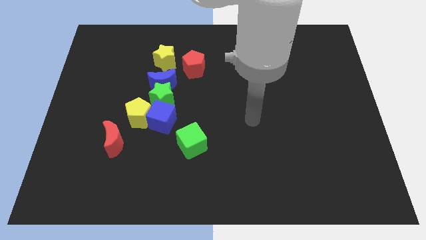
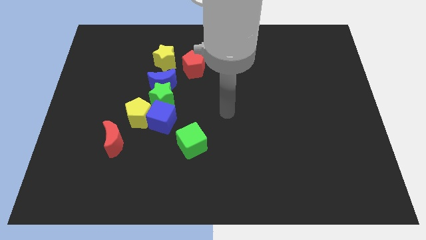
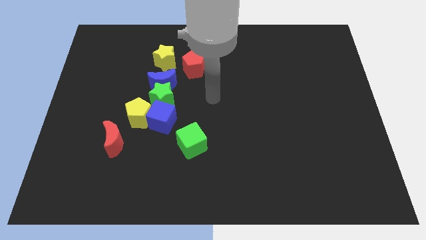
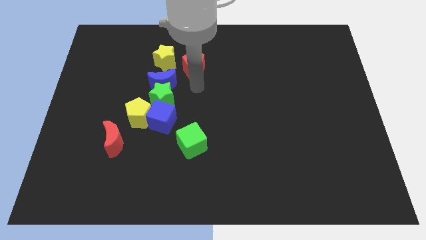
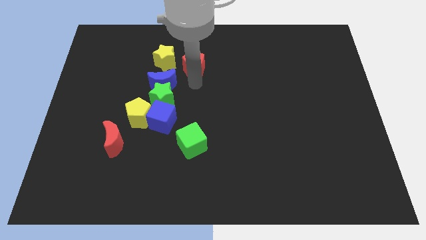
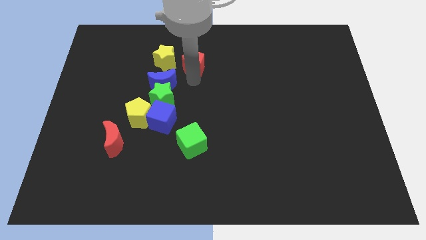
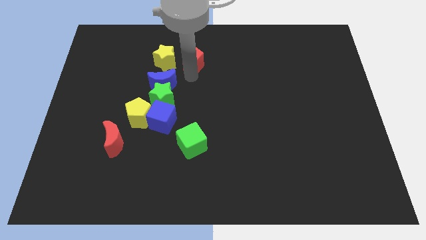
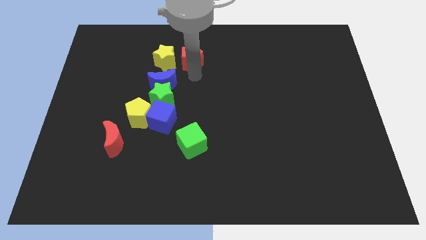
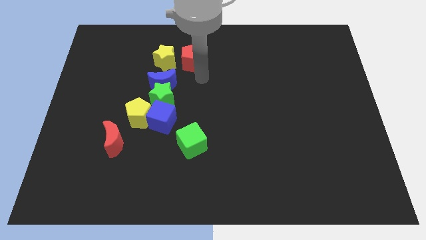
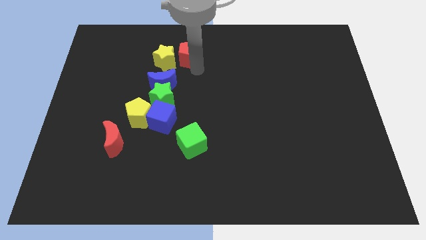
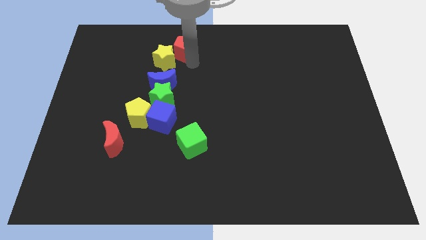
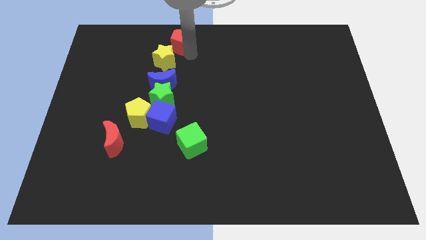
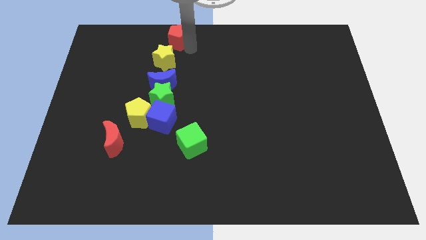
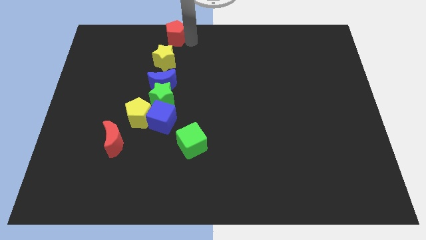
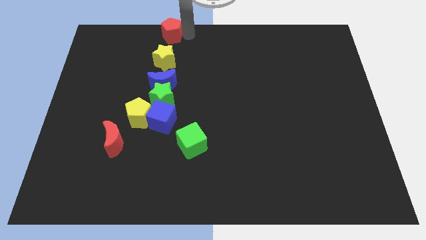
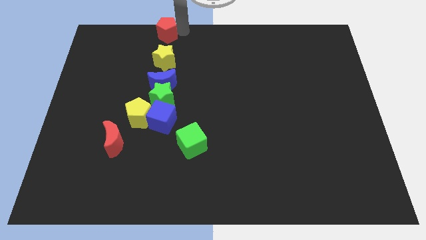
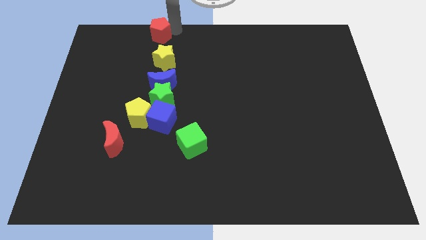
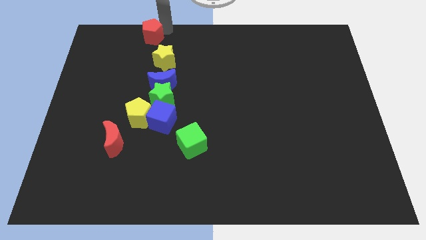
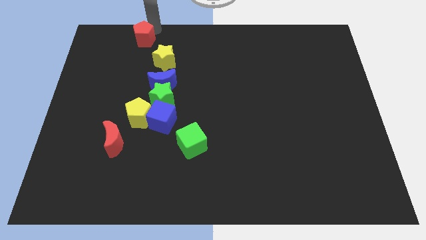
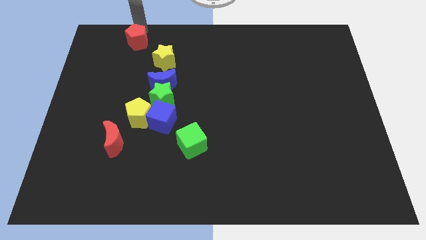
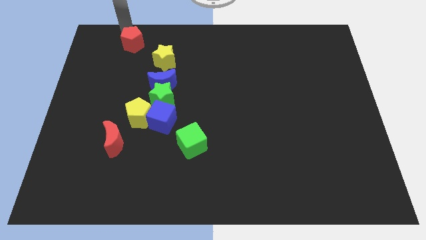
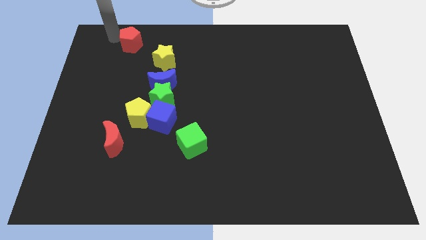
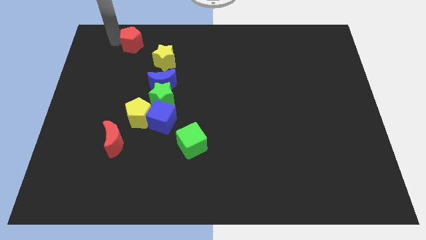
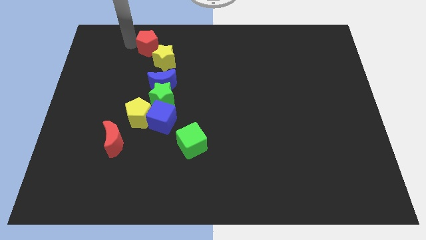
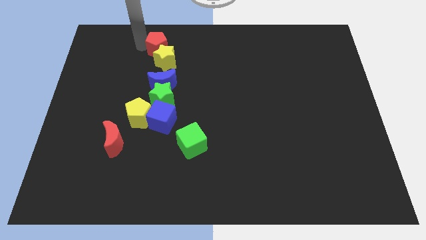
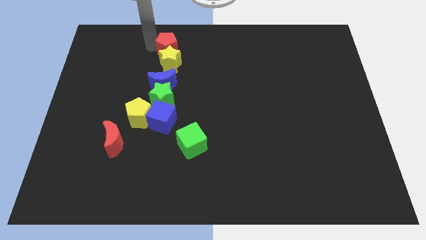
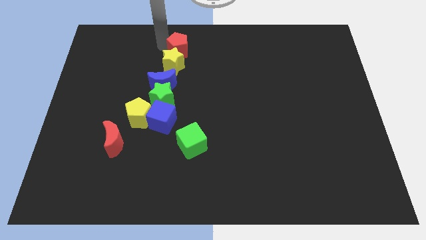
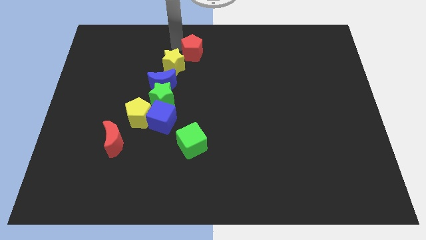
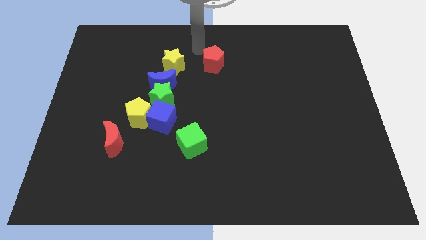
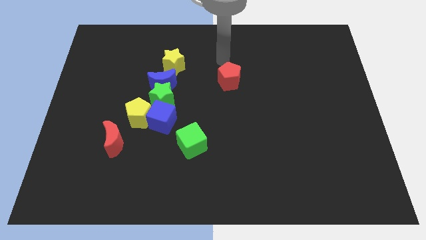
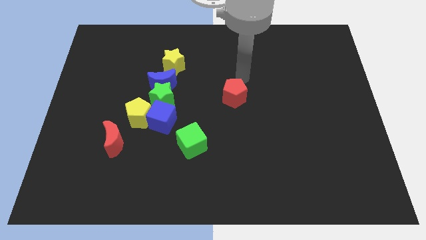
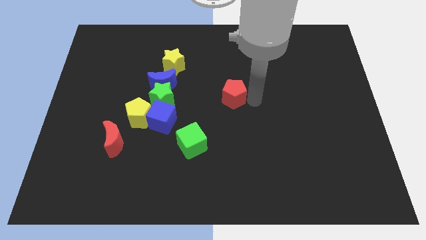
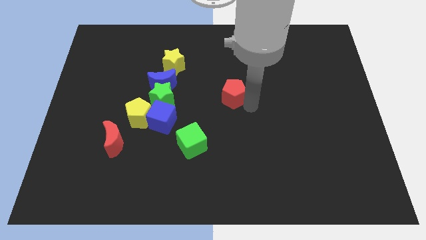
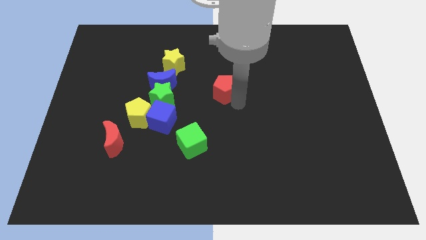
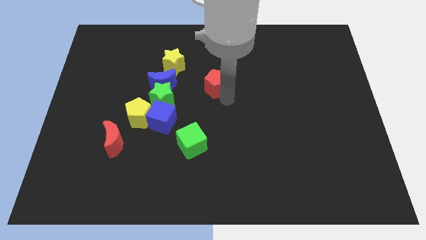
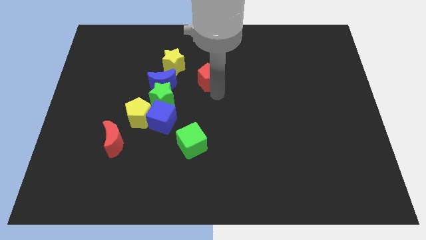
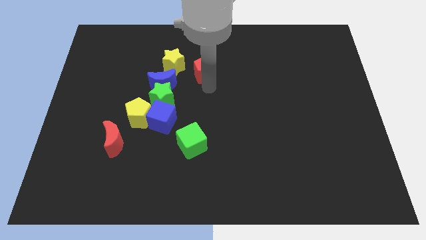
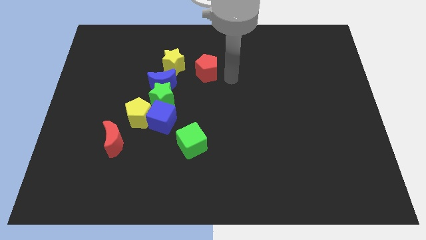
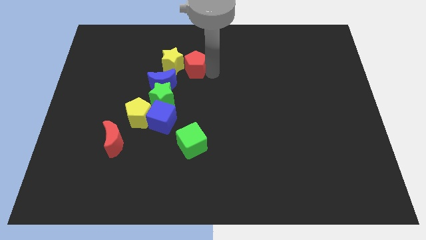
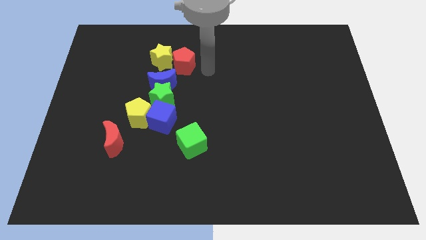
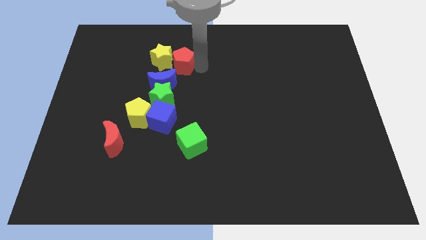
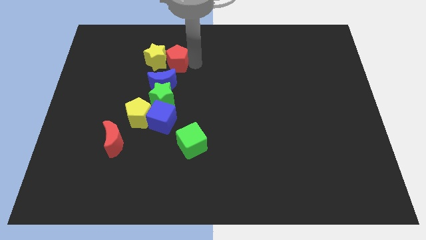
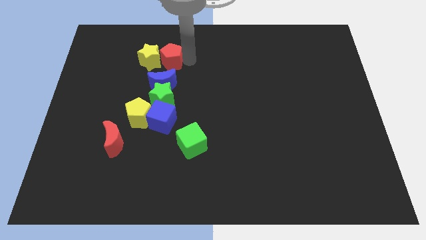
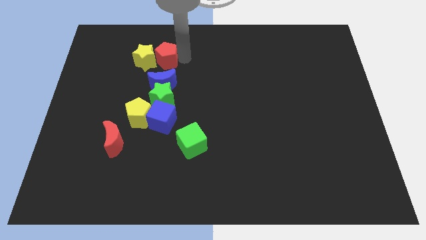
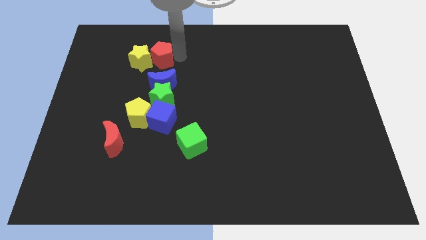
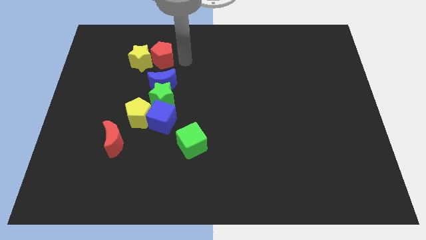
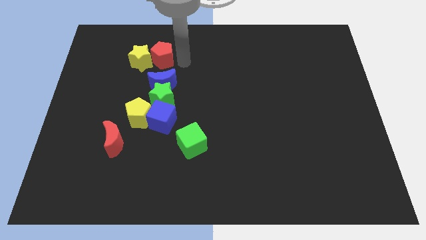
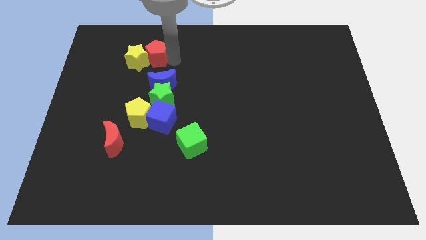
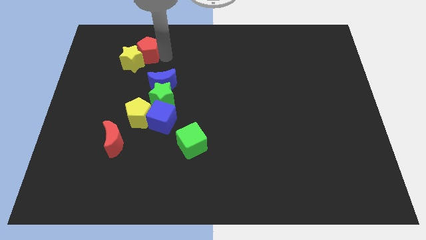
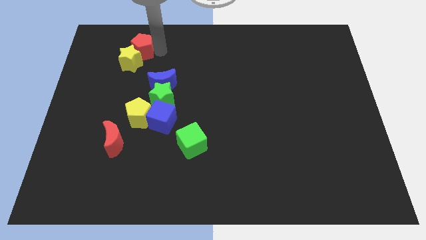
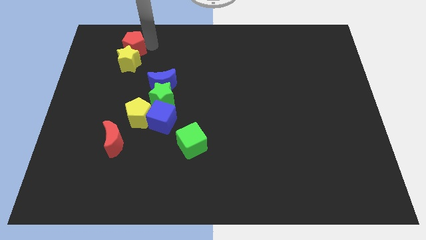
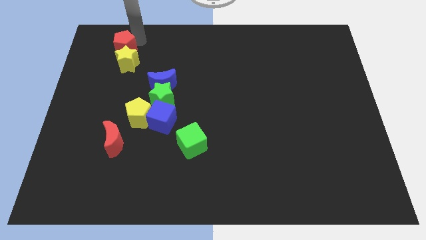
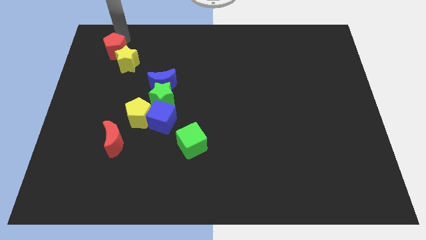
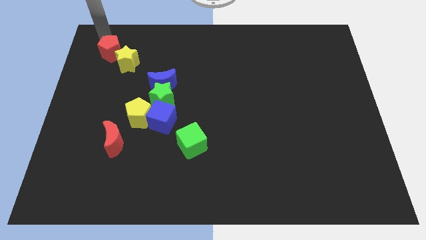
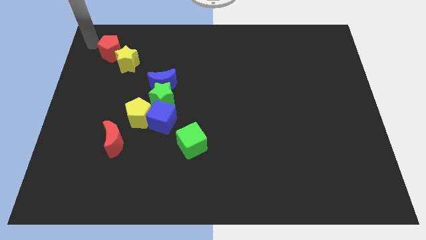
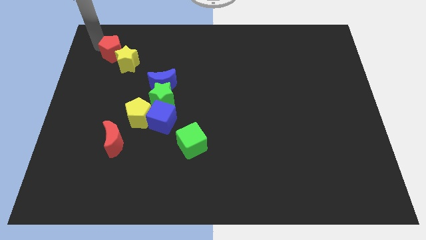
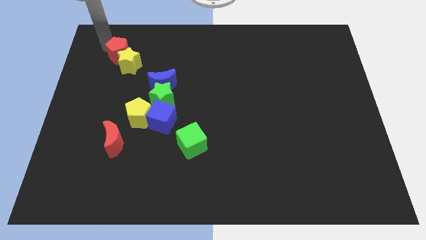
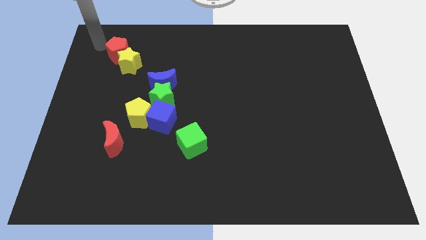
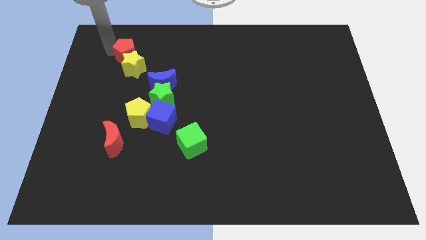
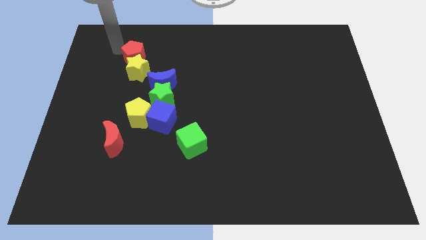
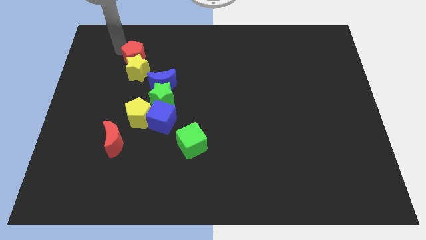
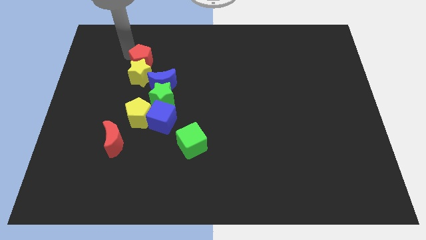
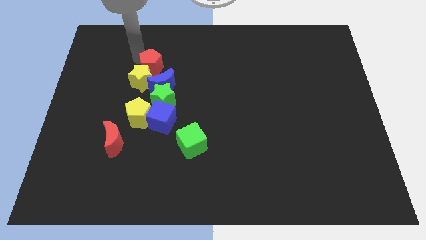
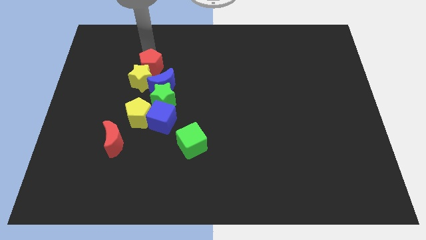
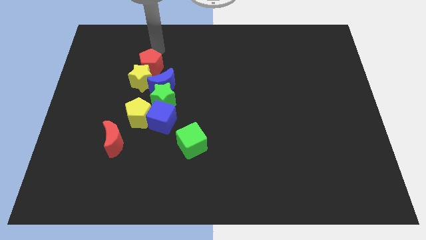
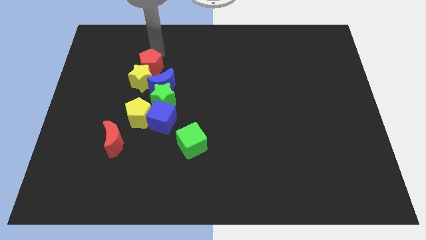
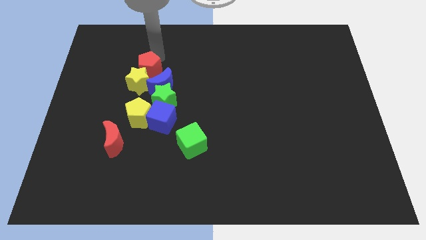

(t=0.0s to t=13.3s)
push the red pentagon diagonally up and to the left of the green star
